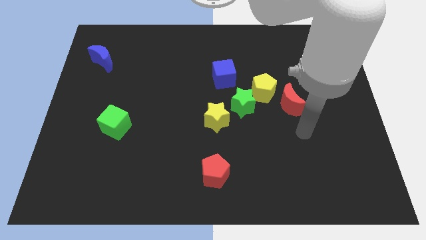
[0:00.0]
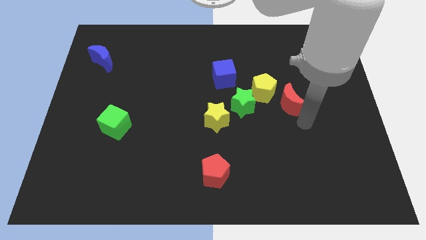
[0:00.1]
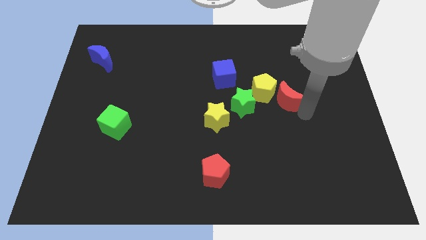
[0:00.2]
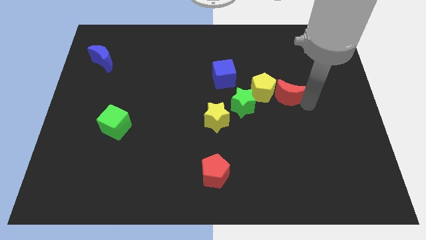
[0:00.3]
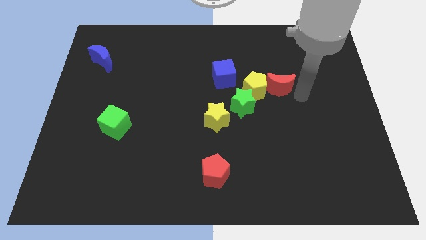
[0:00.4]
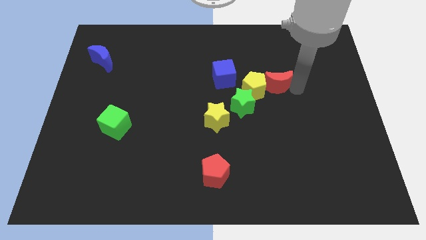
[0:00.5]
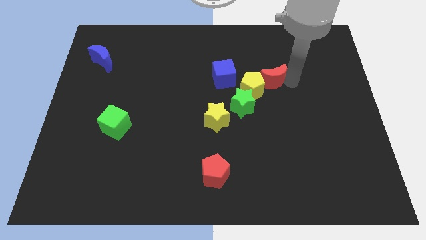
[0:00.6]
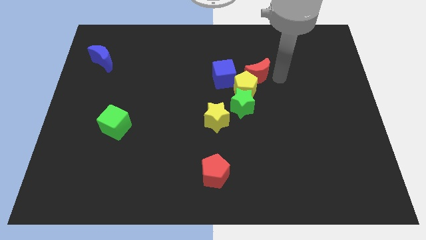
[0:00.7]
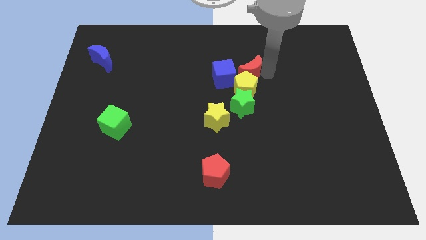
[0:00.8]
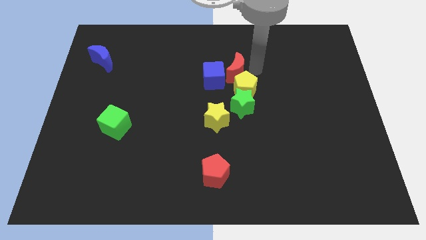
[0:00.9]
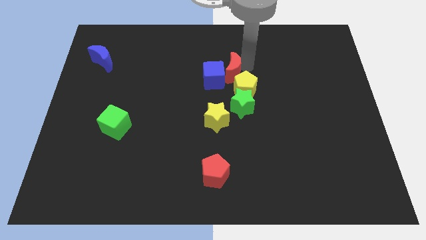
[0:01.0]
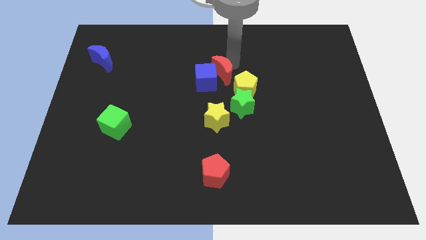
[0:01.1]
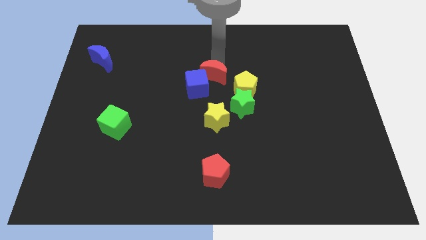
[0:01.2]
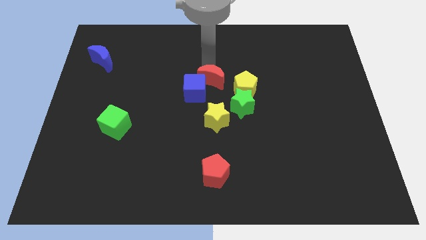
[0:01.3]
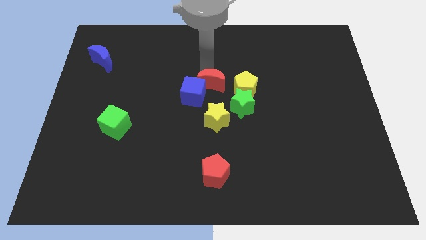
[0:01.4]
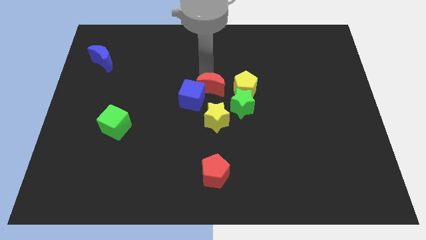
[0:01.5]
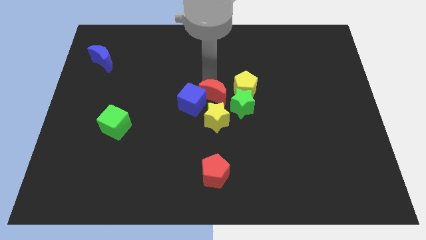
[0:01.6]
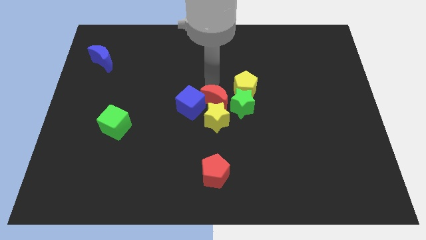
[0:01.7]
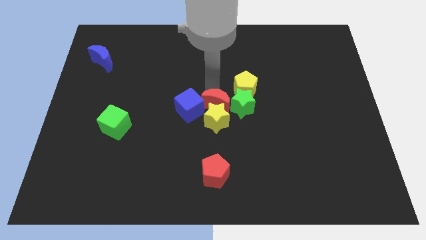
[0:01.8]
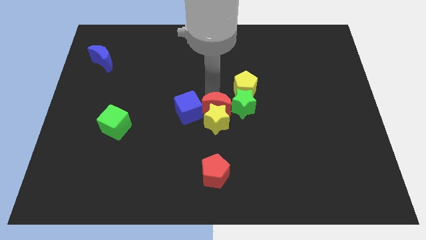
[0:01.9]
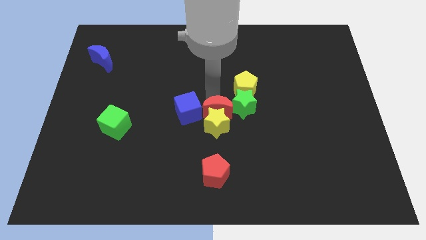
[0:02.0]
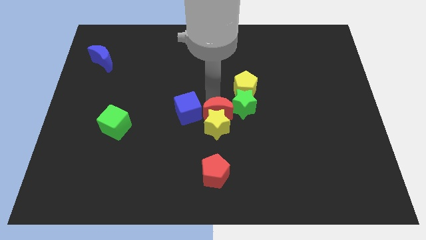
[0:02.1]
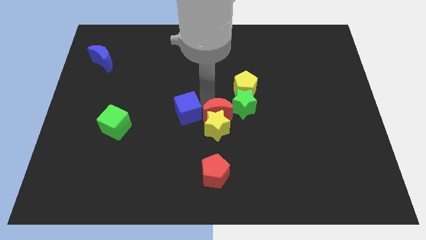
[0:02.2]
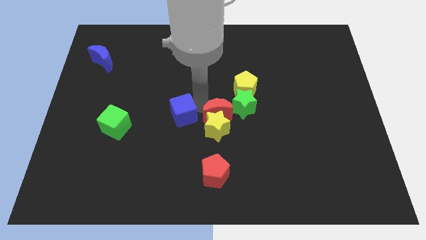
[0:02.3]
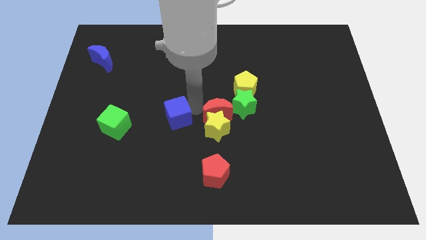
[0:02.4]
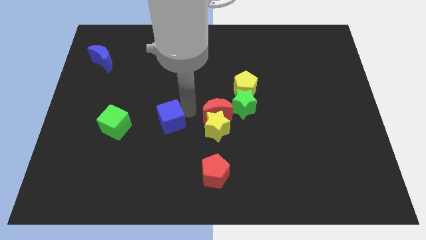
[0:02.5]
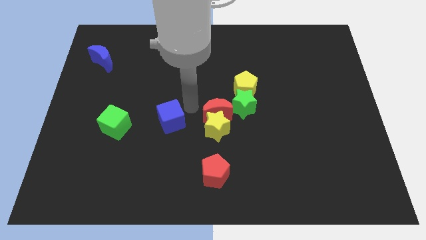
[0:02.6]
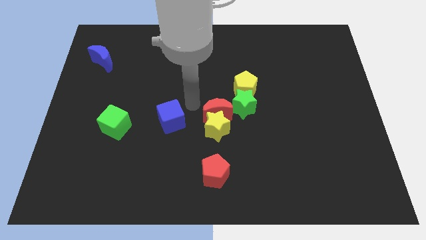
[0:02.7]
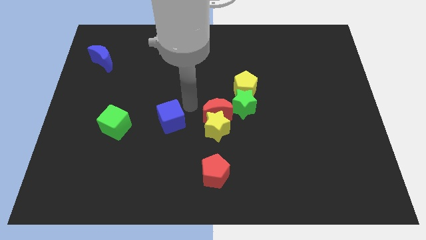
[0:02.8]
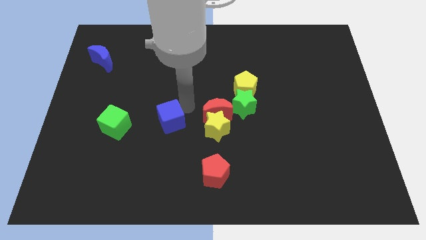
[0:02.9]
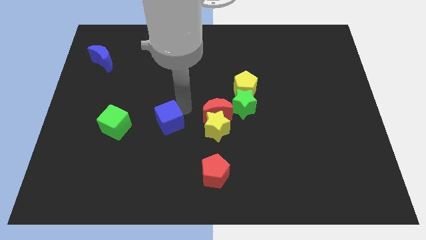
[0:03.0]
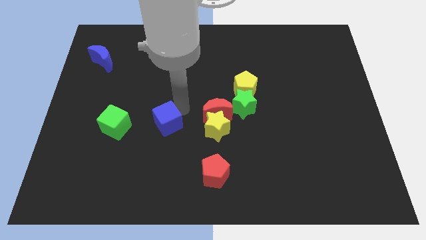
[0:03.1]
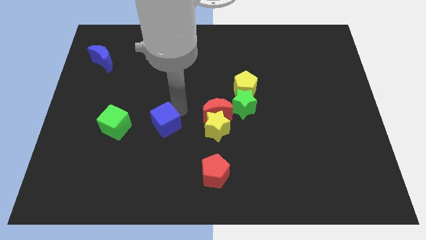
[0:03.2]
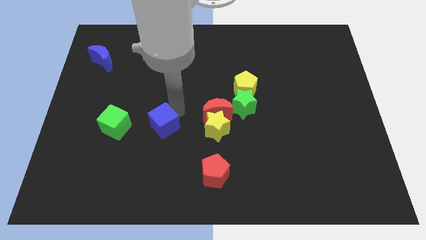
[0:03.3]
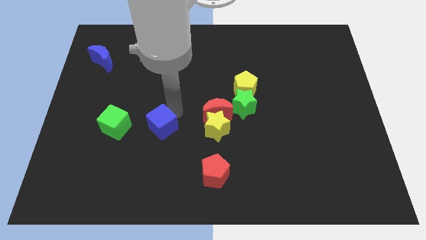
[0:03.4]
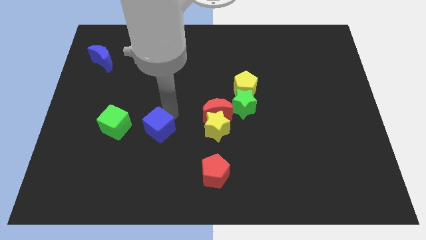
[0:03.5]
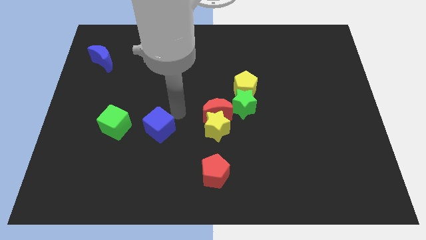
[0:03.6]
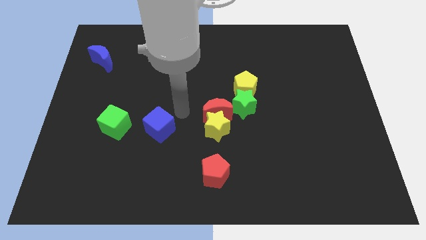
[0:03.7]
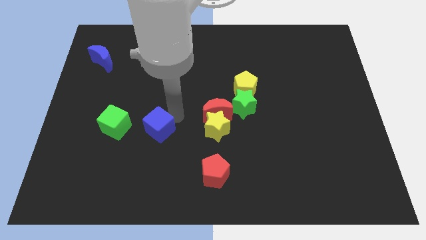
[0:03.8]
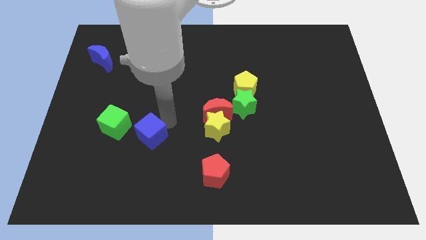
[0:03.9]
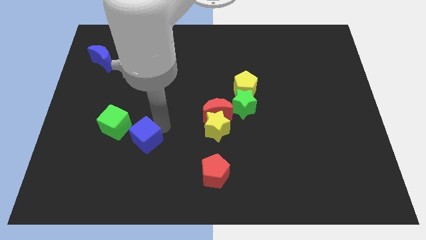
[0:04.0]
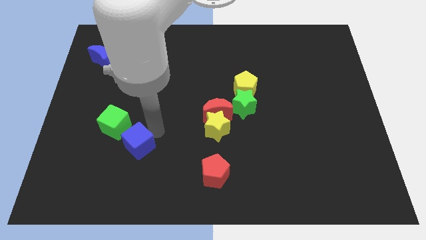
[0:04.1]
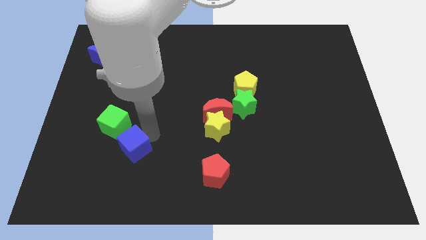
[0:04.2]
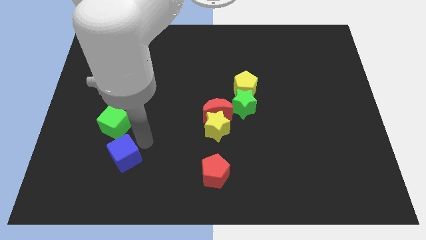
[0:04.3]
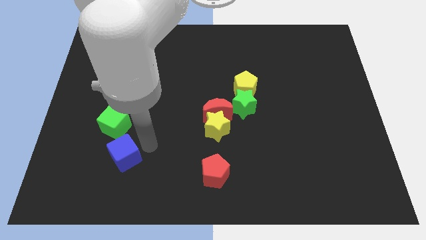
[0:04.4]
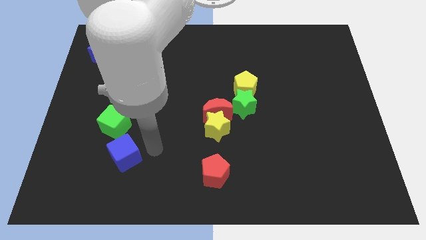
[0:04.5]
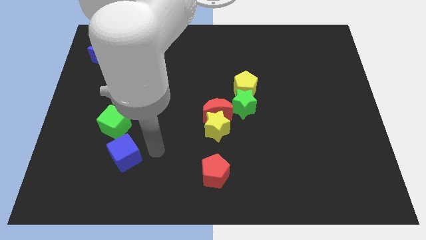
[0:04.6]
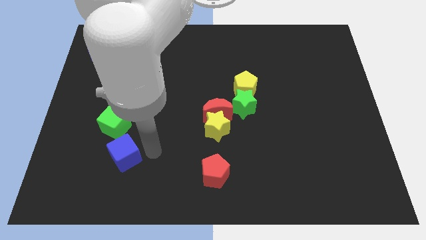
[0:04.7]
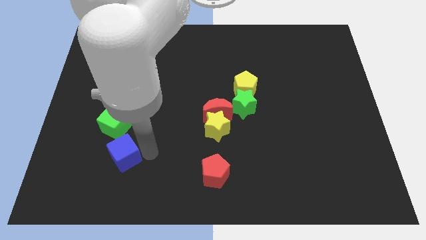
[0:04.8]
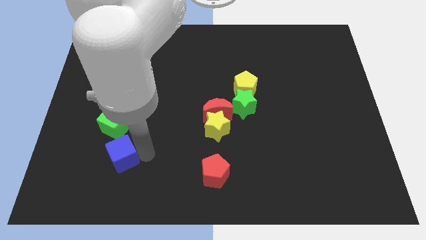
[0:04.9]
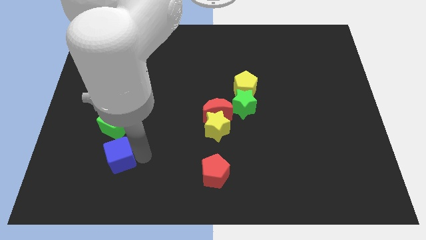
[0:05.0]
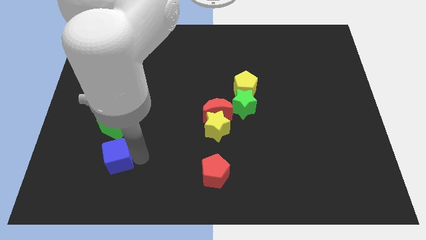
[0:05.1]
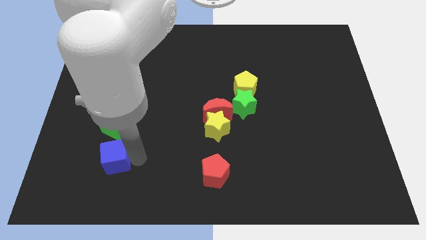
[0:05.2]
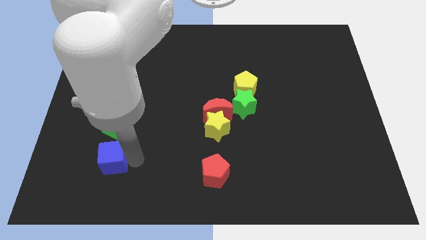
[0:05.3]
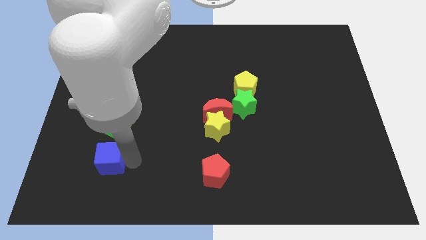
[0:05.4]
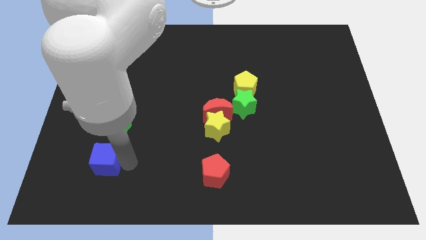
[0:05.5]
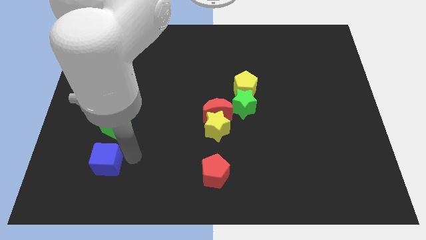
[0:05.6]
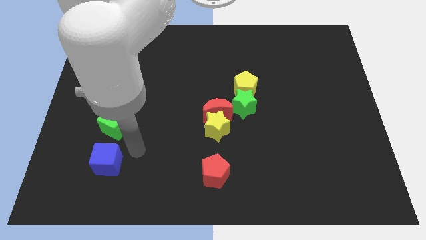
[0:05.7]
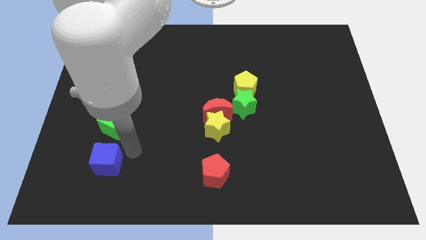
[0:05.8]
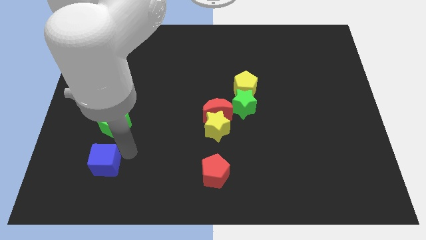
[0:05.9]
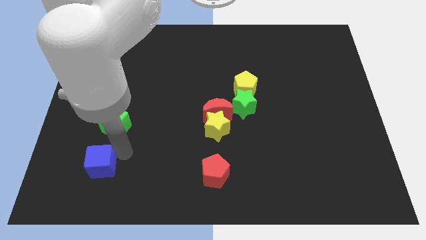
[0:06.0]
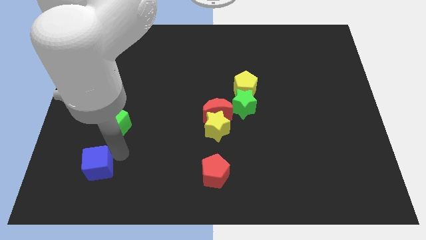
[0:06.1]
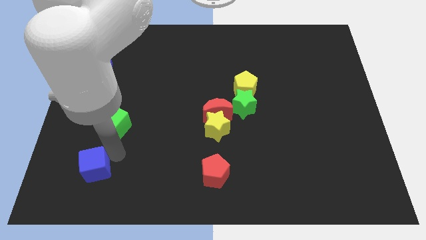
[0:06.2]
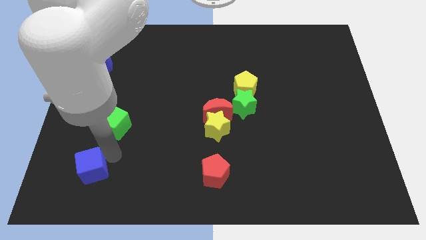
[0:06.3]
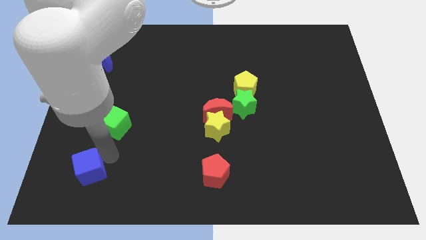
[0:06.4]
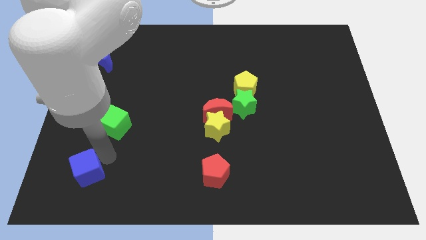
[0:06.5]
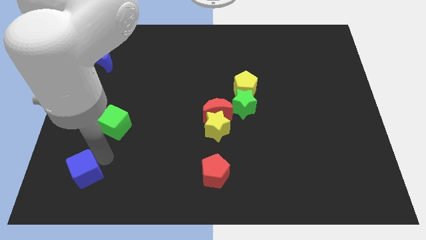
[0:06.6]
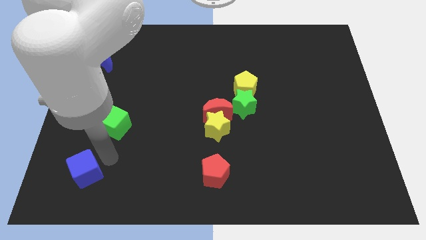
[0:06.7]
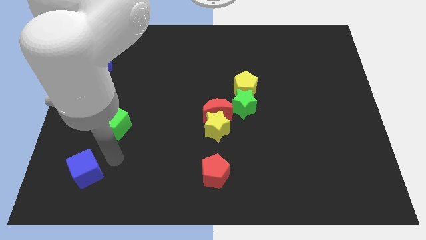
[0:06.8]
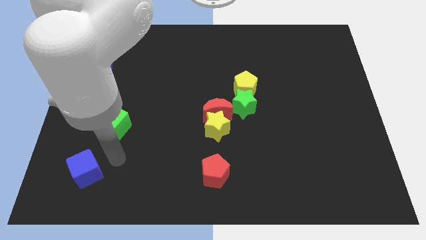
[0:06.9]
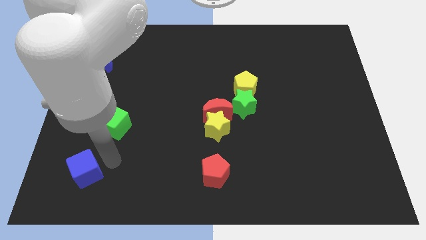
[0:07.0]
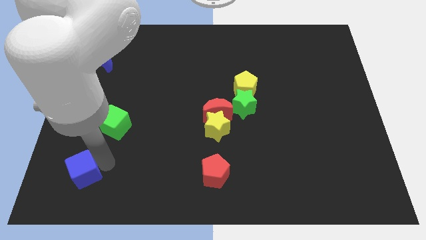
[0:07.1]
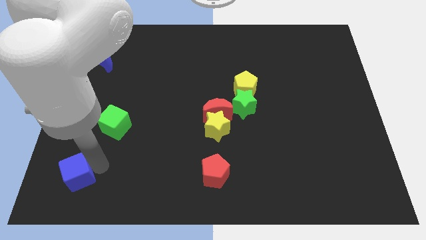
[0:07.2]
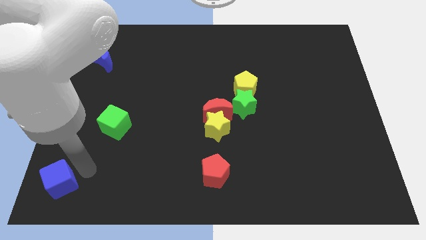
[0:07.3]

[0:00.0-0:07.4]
move the blue cube to the bottom left
